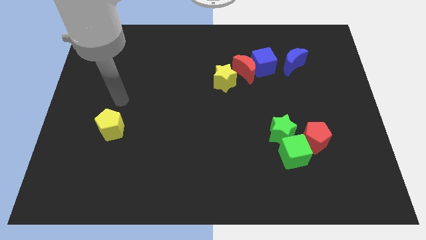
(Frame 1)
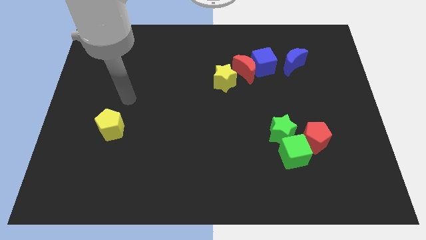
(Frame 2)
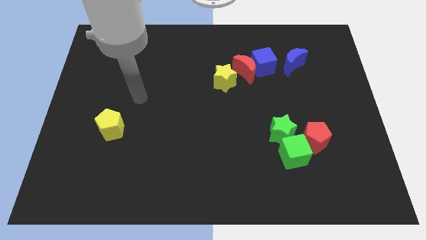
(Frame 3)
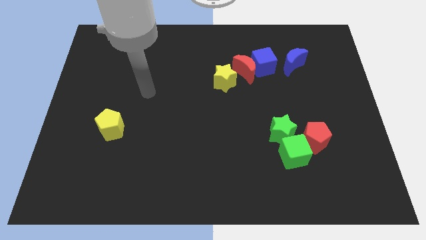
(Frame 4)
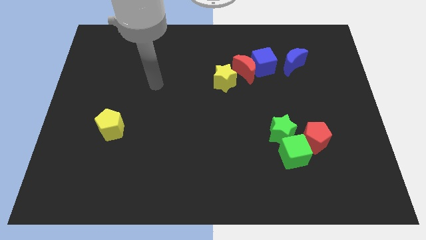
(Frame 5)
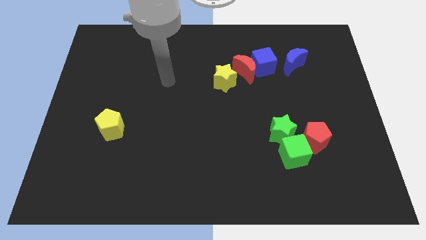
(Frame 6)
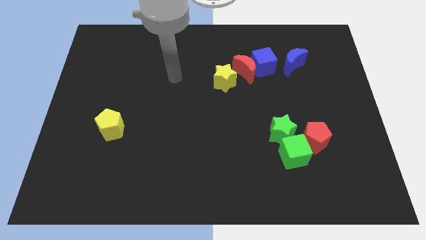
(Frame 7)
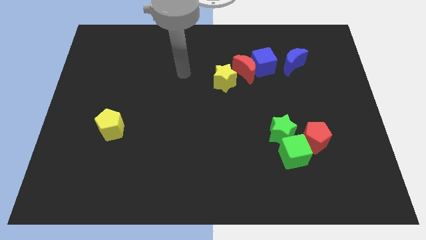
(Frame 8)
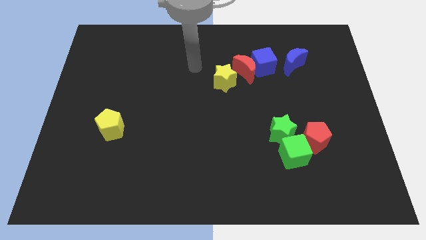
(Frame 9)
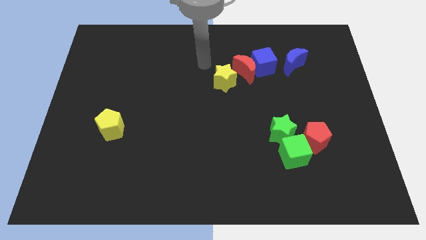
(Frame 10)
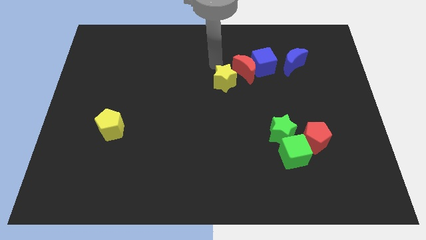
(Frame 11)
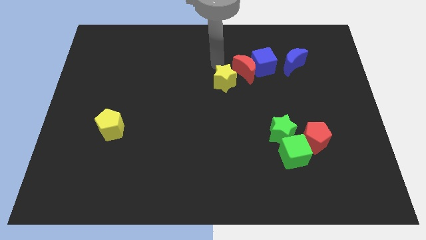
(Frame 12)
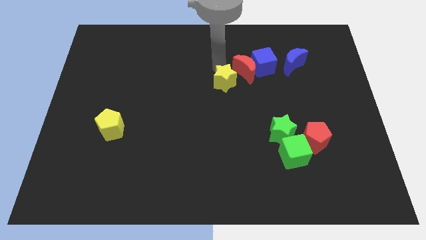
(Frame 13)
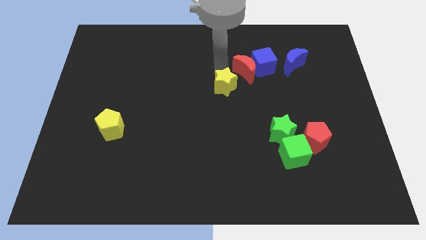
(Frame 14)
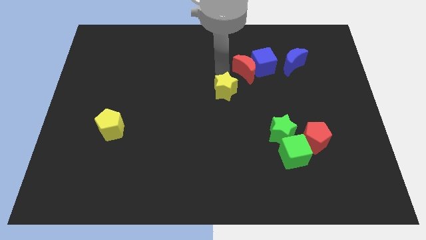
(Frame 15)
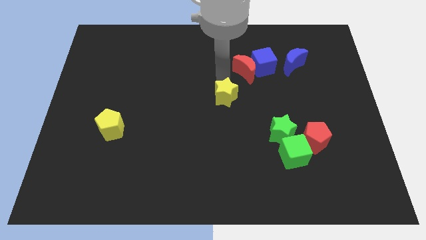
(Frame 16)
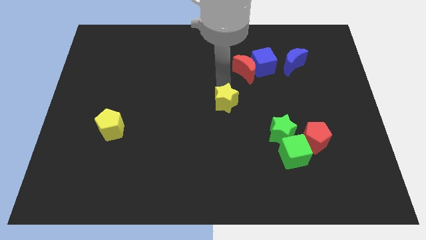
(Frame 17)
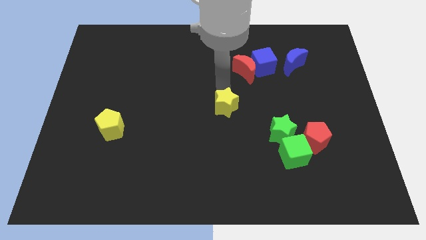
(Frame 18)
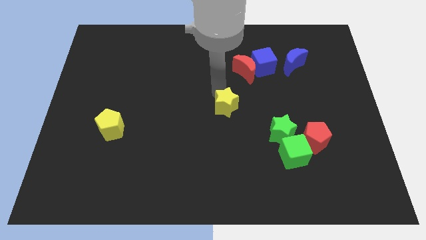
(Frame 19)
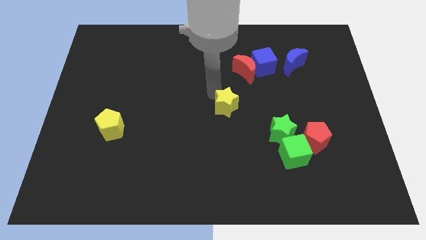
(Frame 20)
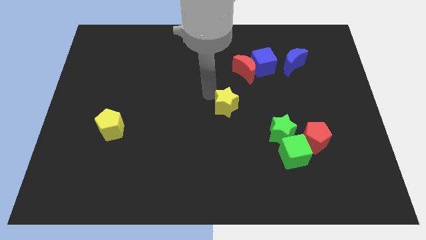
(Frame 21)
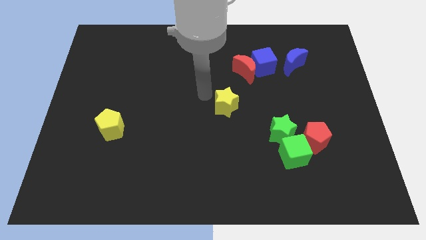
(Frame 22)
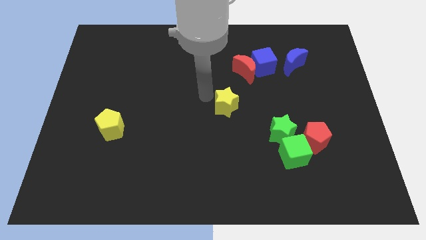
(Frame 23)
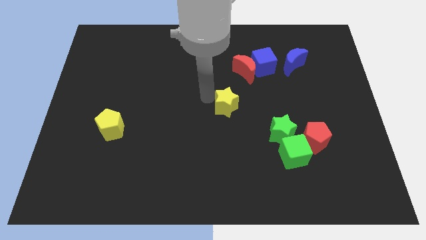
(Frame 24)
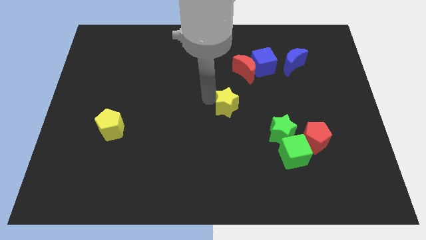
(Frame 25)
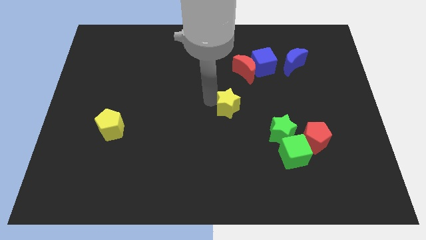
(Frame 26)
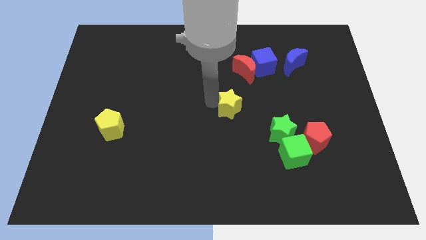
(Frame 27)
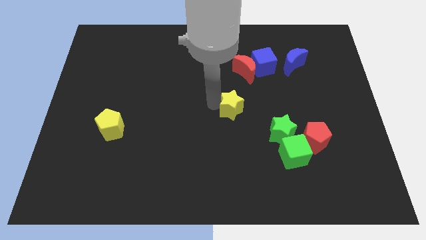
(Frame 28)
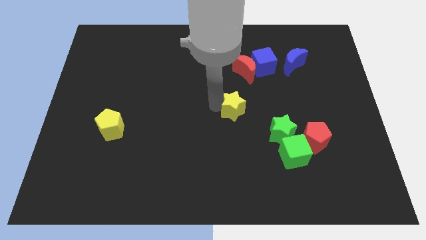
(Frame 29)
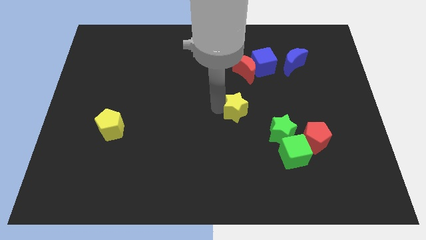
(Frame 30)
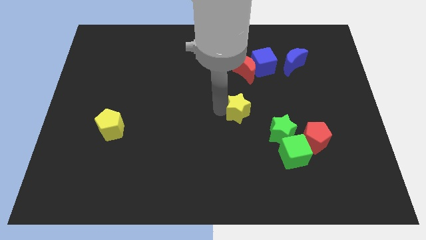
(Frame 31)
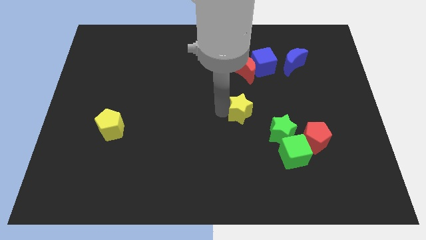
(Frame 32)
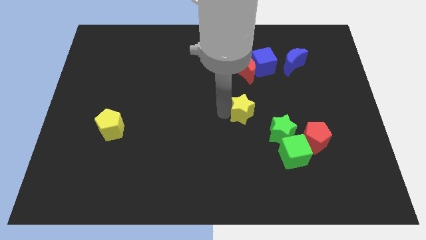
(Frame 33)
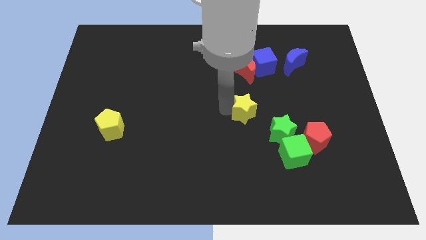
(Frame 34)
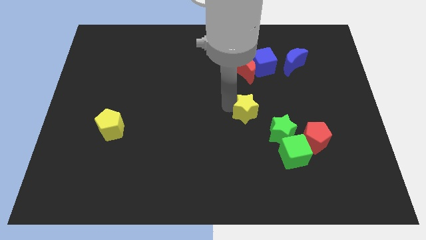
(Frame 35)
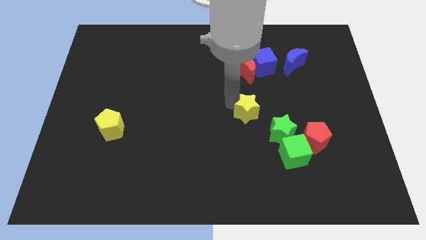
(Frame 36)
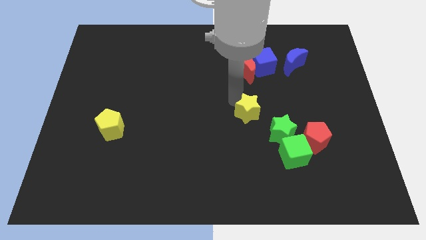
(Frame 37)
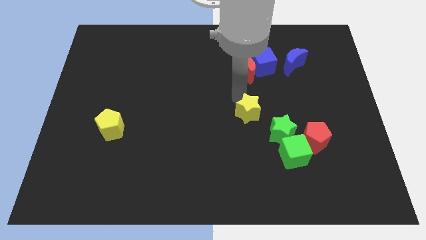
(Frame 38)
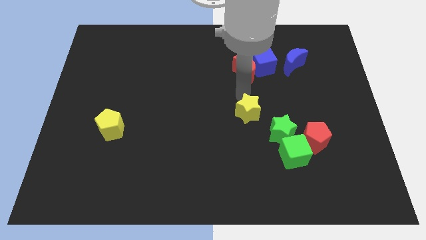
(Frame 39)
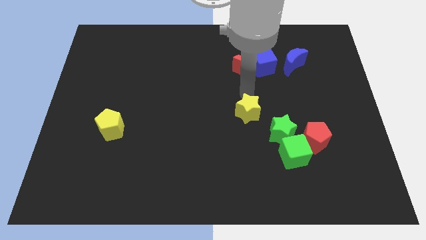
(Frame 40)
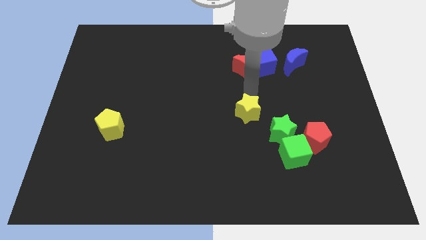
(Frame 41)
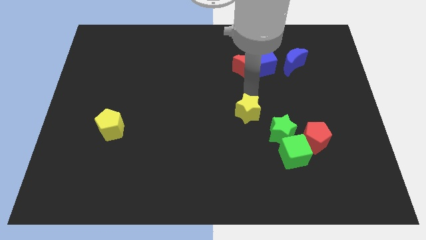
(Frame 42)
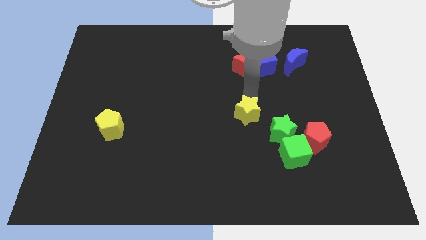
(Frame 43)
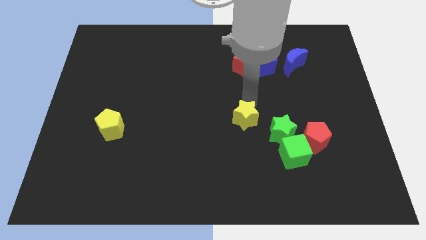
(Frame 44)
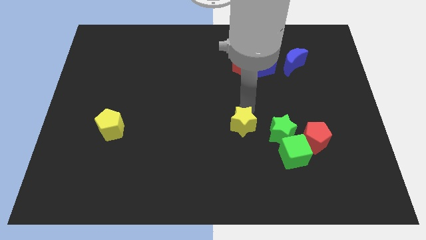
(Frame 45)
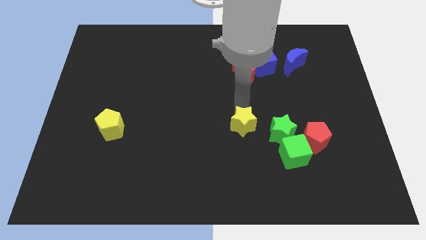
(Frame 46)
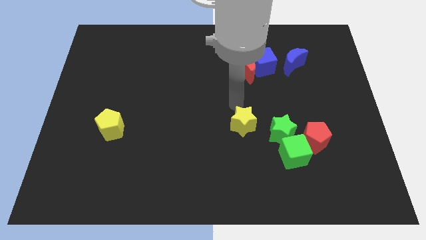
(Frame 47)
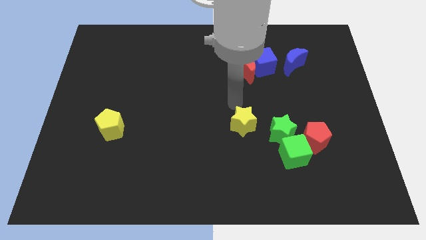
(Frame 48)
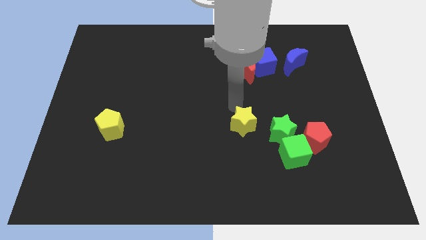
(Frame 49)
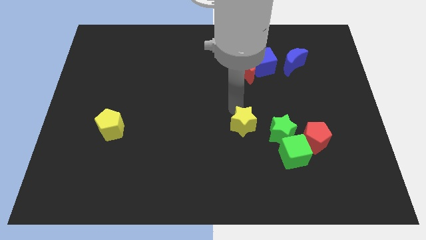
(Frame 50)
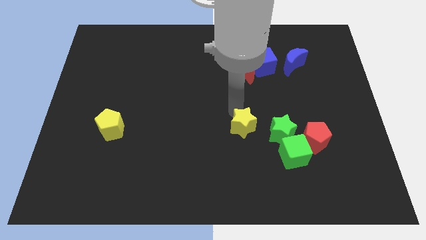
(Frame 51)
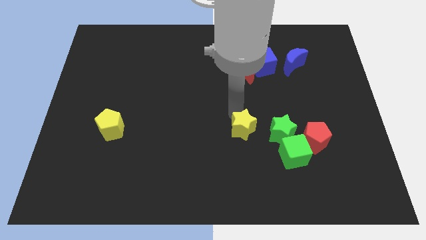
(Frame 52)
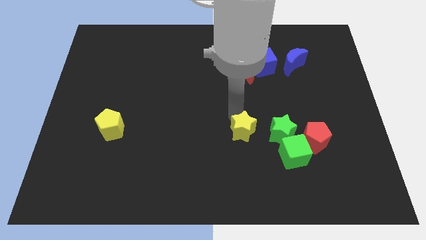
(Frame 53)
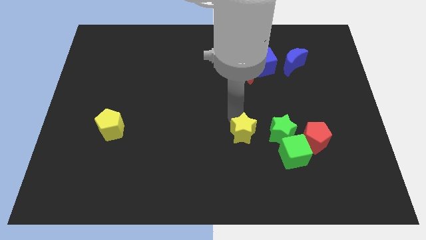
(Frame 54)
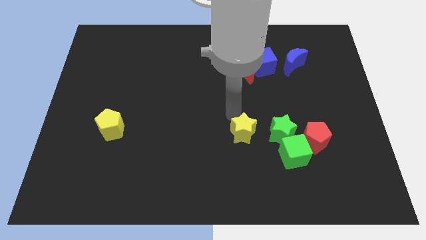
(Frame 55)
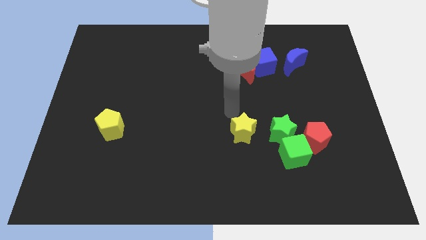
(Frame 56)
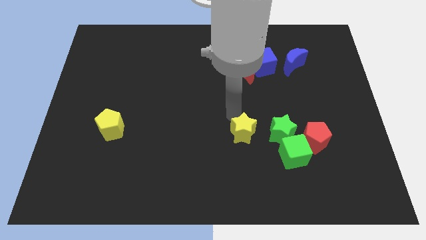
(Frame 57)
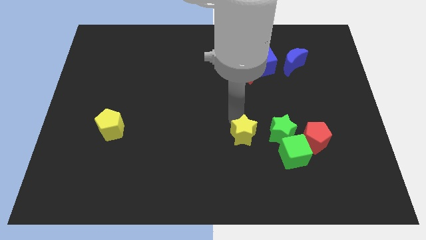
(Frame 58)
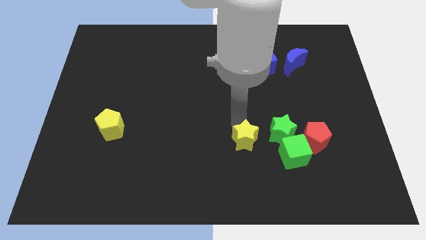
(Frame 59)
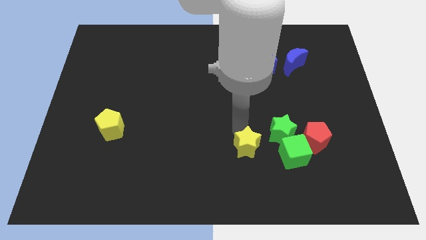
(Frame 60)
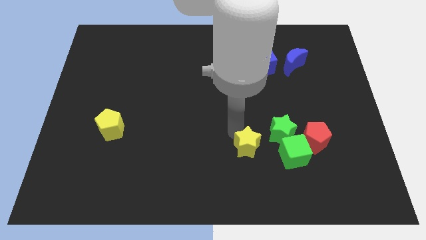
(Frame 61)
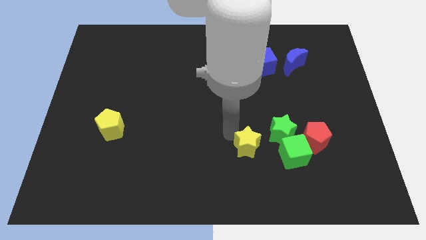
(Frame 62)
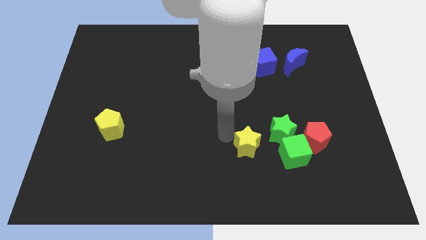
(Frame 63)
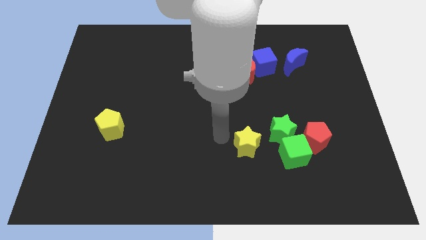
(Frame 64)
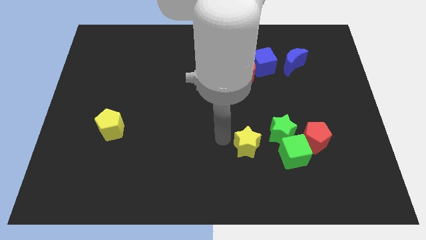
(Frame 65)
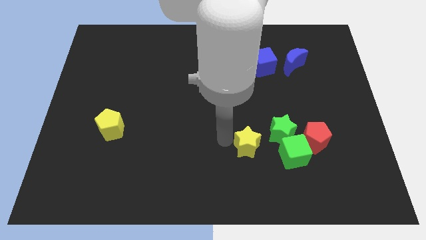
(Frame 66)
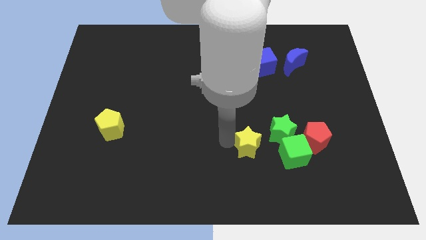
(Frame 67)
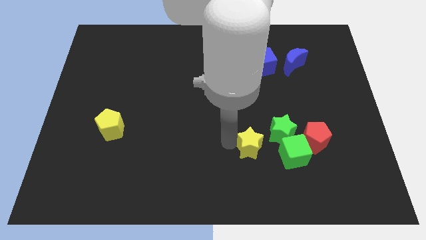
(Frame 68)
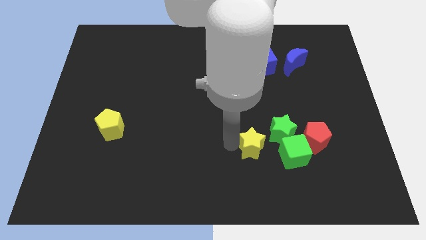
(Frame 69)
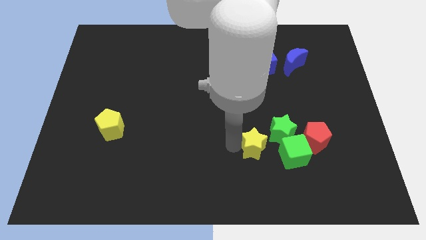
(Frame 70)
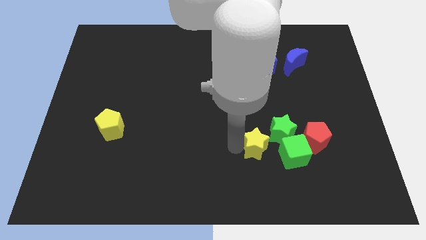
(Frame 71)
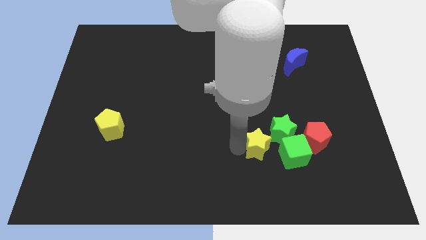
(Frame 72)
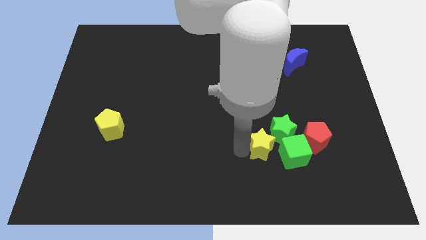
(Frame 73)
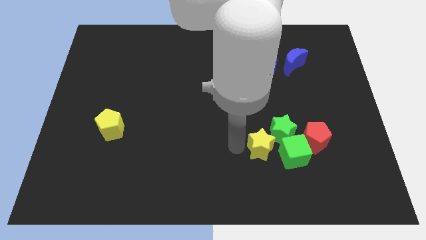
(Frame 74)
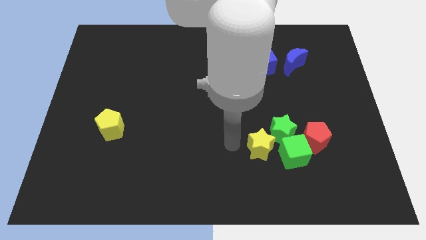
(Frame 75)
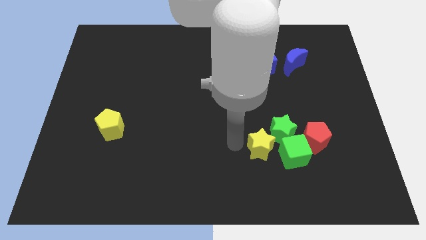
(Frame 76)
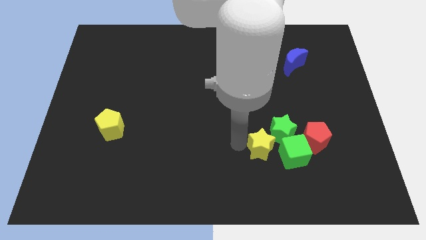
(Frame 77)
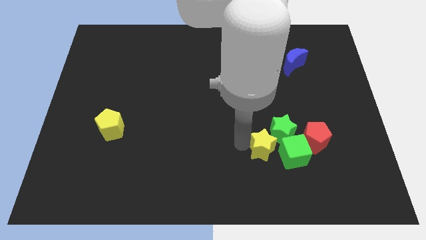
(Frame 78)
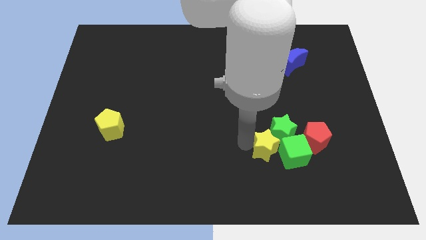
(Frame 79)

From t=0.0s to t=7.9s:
put the yellow star towards the green cube
